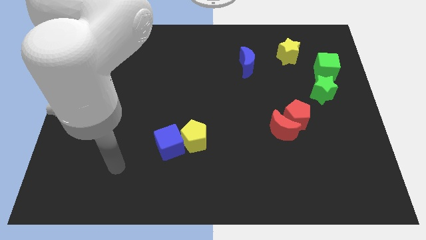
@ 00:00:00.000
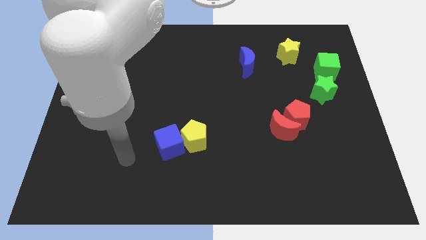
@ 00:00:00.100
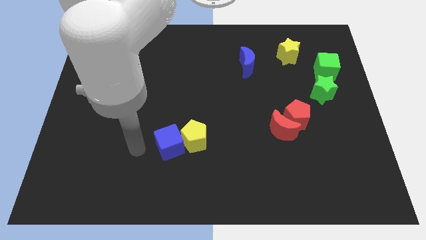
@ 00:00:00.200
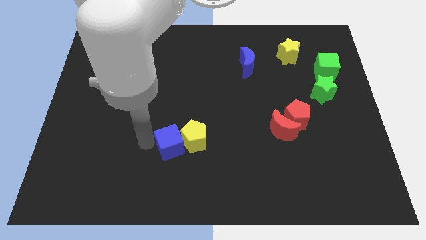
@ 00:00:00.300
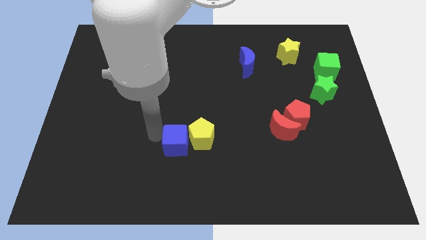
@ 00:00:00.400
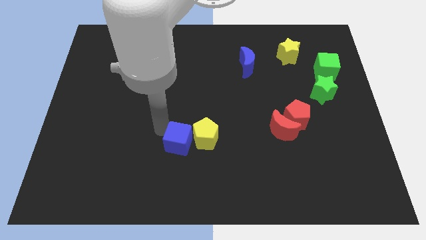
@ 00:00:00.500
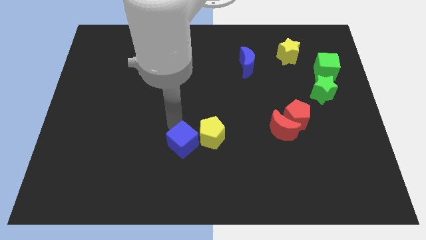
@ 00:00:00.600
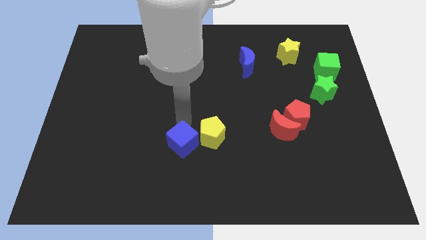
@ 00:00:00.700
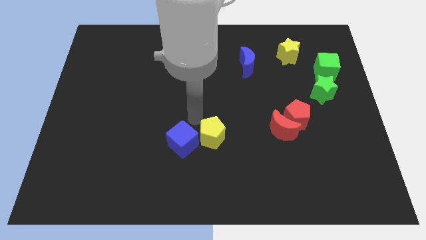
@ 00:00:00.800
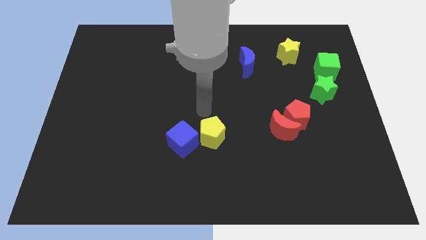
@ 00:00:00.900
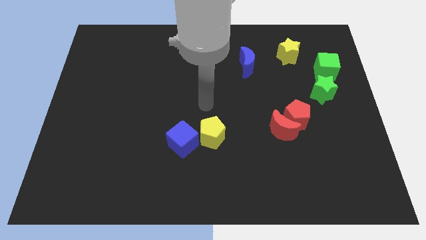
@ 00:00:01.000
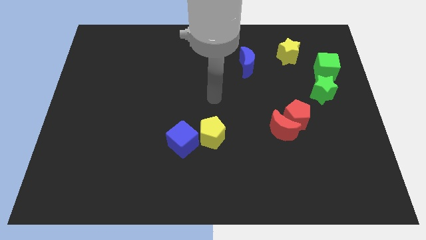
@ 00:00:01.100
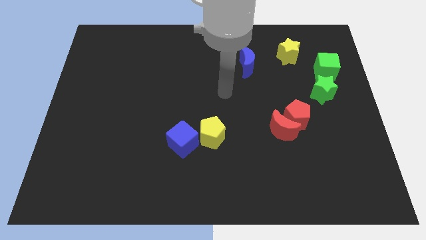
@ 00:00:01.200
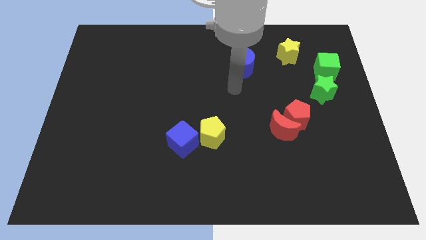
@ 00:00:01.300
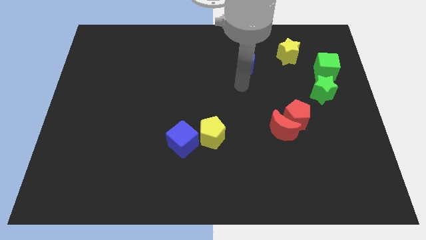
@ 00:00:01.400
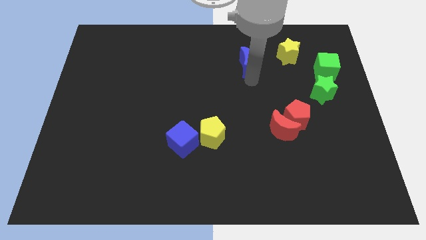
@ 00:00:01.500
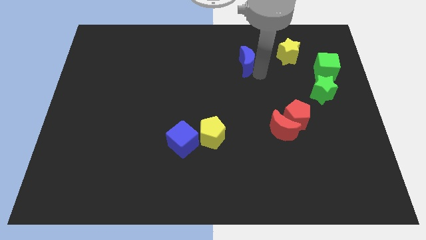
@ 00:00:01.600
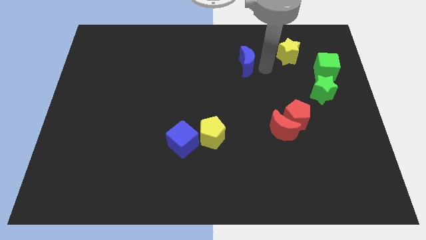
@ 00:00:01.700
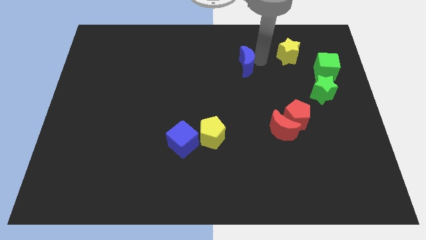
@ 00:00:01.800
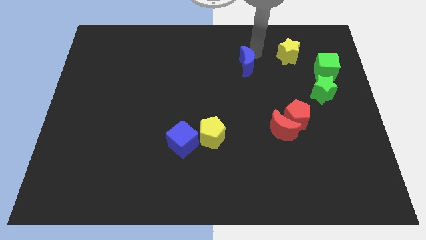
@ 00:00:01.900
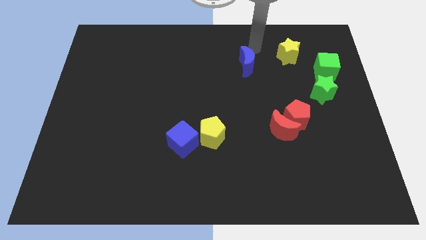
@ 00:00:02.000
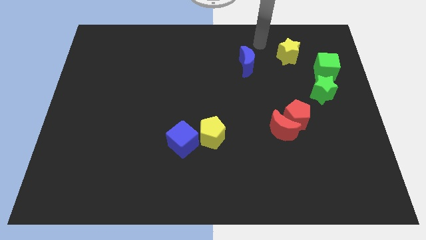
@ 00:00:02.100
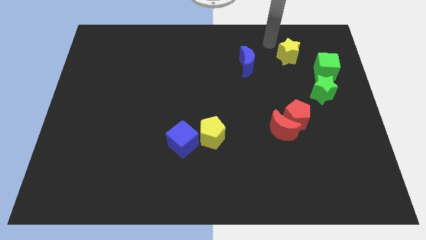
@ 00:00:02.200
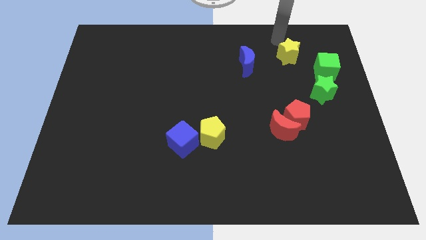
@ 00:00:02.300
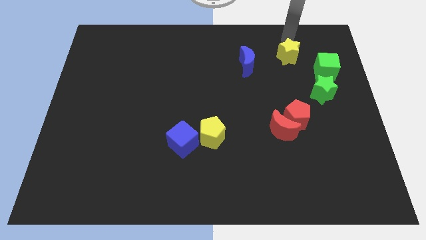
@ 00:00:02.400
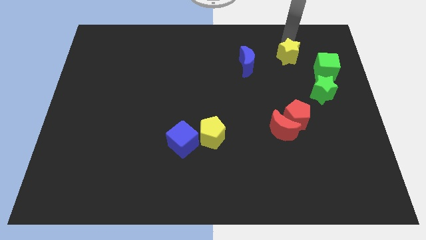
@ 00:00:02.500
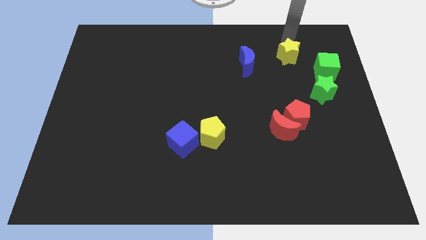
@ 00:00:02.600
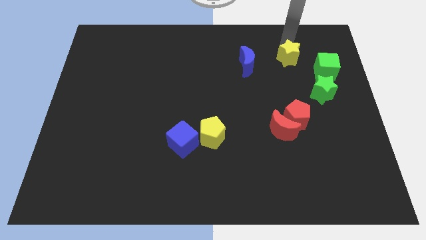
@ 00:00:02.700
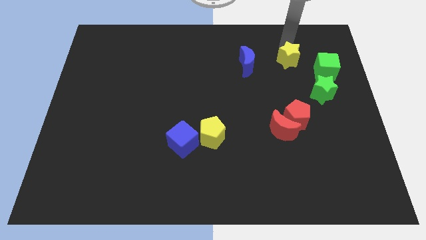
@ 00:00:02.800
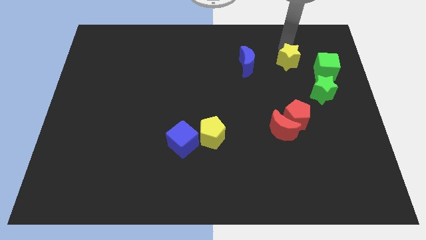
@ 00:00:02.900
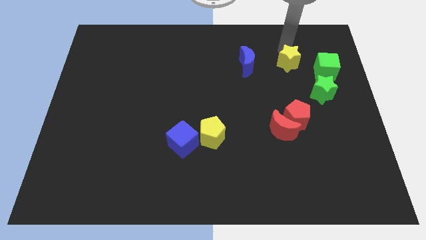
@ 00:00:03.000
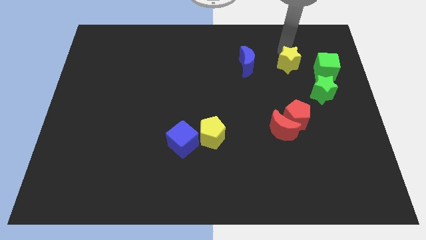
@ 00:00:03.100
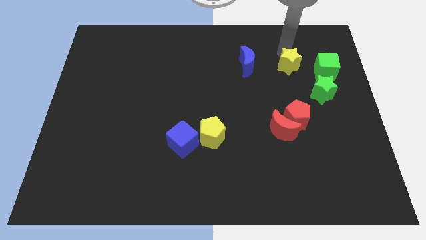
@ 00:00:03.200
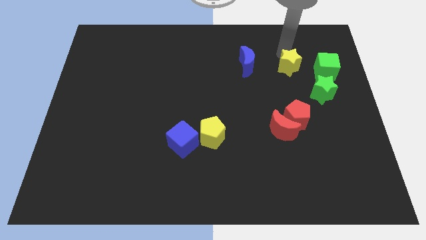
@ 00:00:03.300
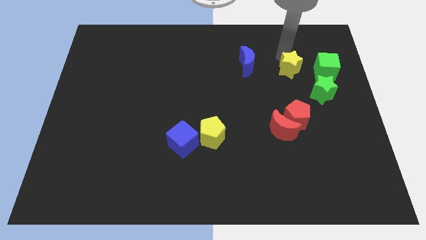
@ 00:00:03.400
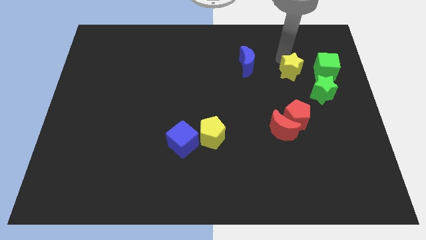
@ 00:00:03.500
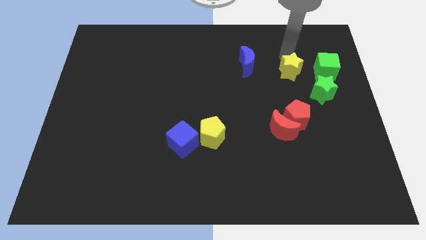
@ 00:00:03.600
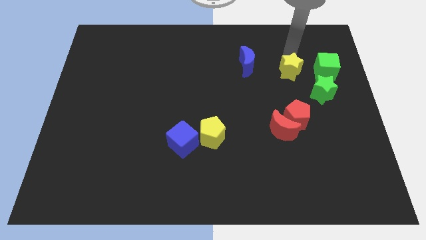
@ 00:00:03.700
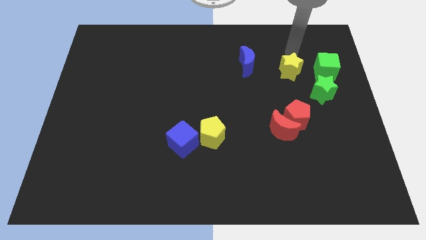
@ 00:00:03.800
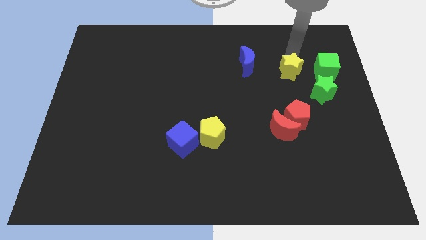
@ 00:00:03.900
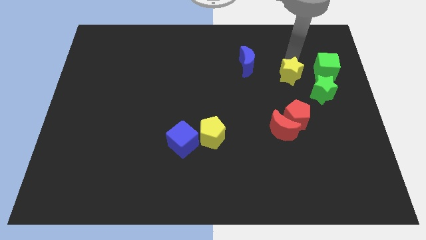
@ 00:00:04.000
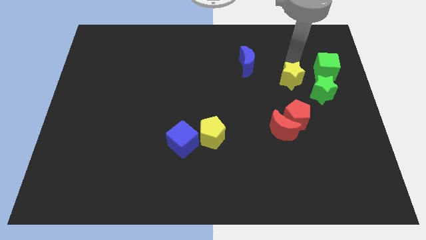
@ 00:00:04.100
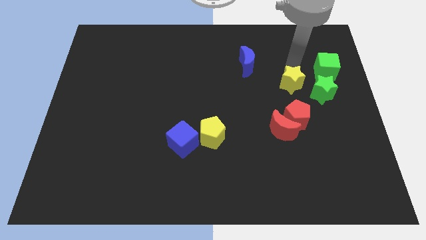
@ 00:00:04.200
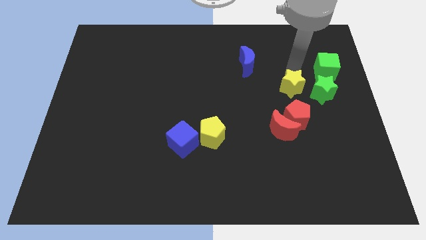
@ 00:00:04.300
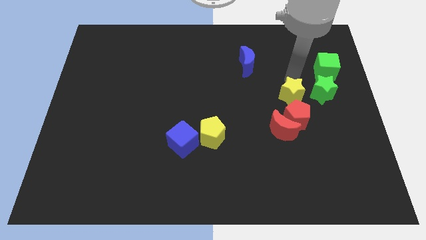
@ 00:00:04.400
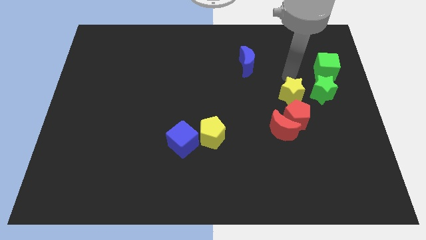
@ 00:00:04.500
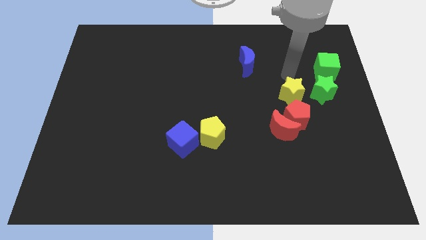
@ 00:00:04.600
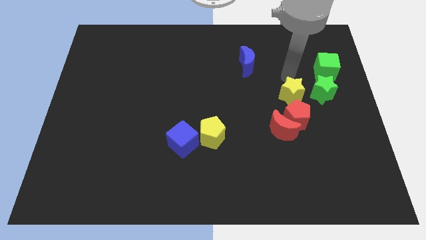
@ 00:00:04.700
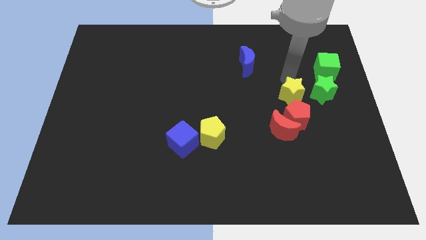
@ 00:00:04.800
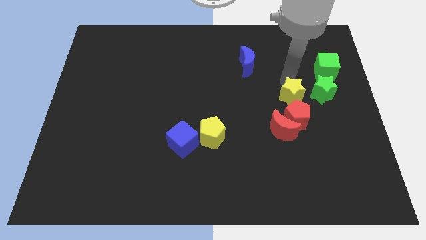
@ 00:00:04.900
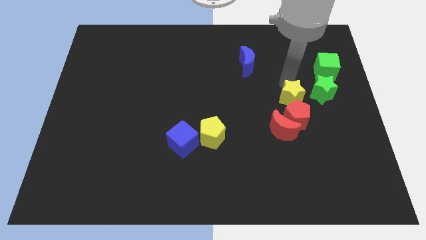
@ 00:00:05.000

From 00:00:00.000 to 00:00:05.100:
slide the yellow star next to the red pentagon

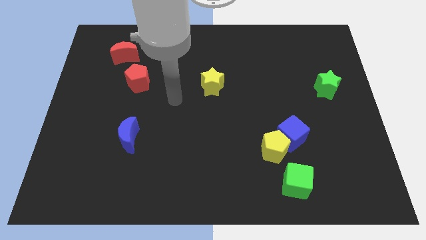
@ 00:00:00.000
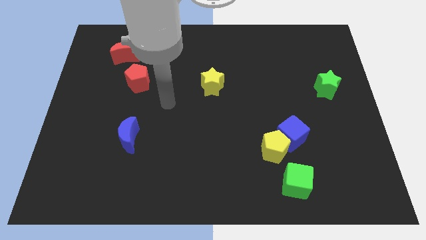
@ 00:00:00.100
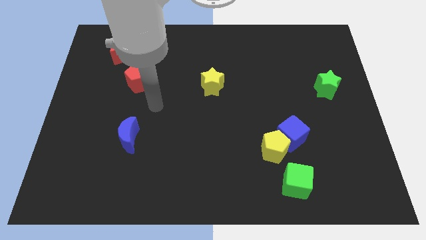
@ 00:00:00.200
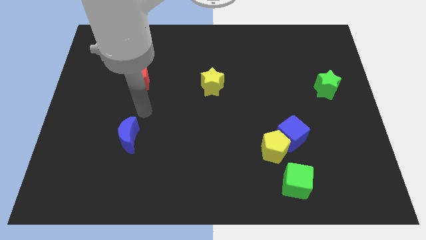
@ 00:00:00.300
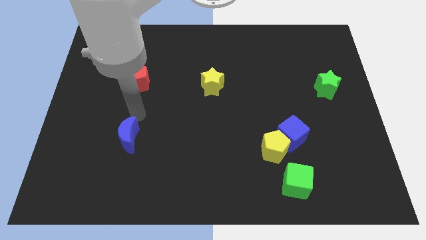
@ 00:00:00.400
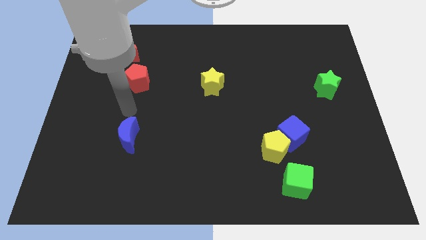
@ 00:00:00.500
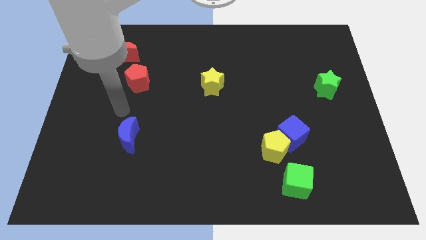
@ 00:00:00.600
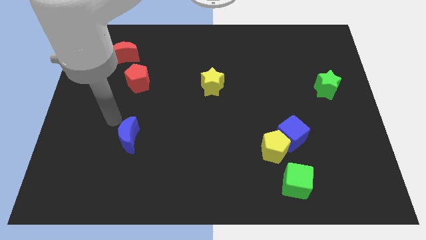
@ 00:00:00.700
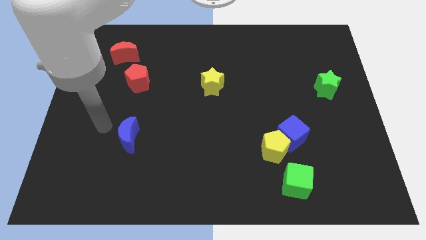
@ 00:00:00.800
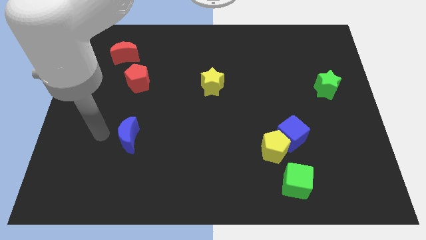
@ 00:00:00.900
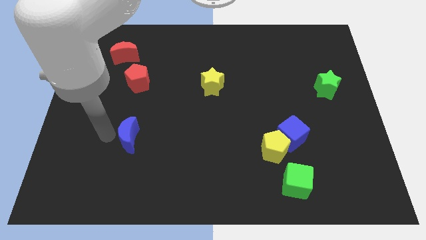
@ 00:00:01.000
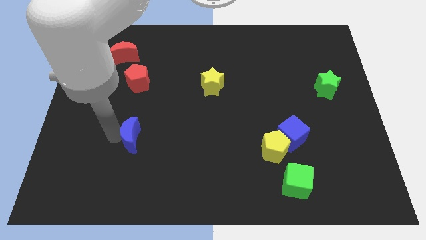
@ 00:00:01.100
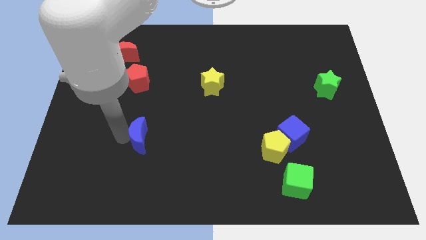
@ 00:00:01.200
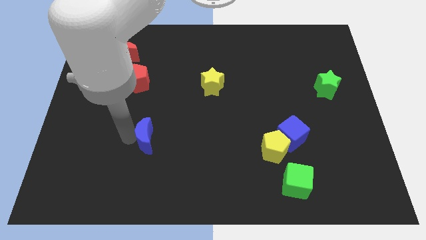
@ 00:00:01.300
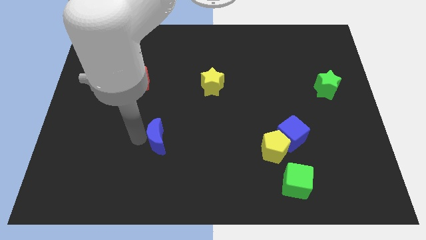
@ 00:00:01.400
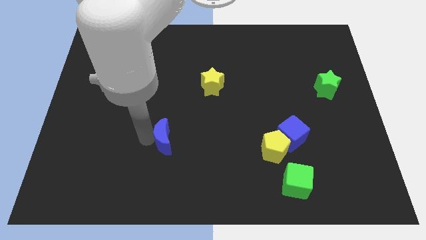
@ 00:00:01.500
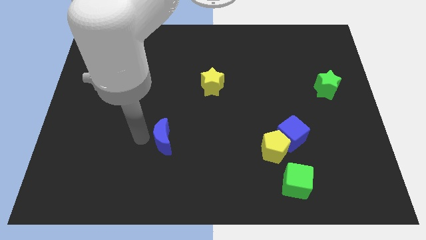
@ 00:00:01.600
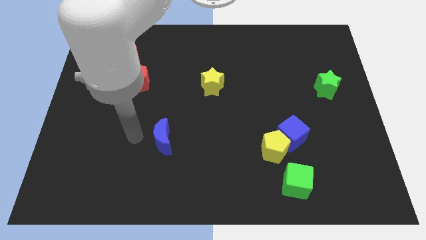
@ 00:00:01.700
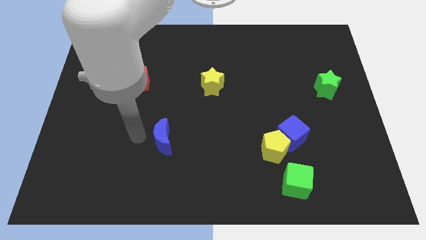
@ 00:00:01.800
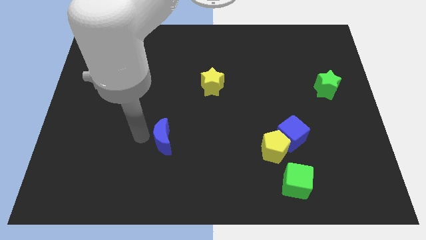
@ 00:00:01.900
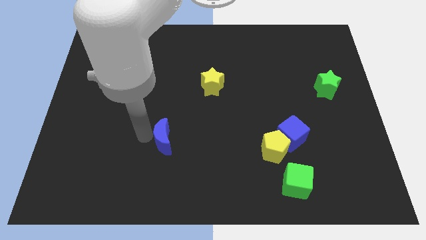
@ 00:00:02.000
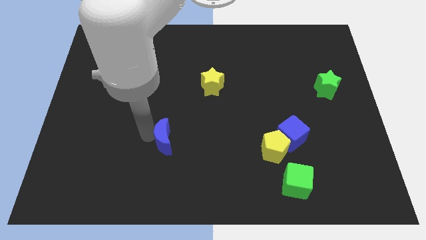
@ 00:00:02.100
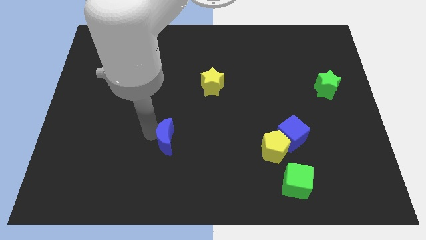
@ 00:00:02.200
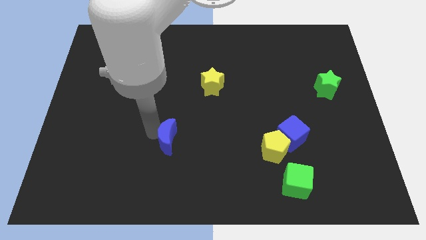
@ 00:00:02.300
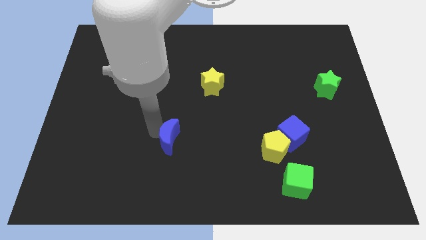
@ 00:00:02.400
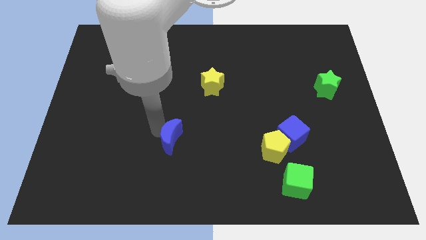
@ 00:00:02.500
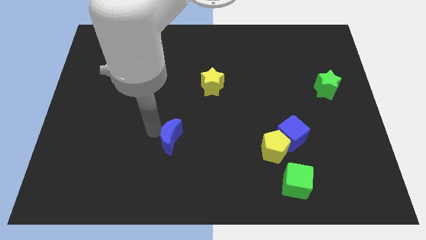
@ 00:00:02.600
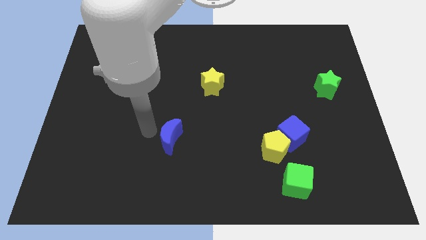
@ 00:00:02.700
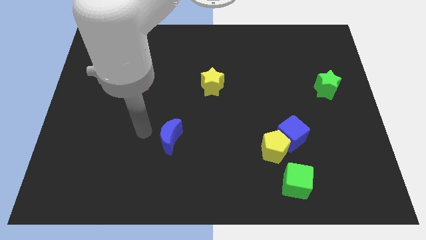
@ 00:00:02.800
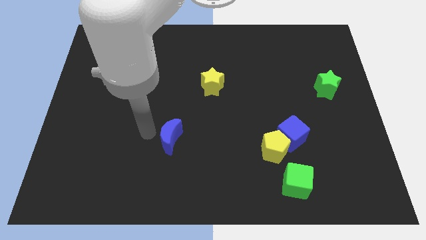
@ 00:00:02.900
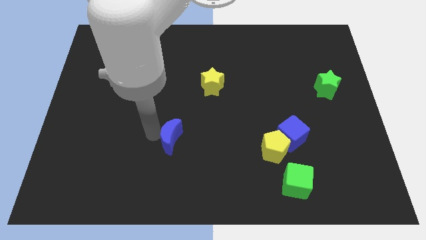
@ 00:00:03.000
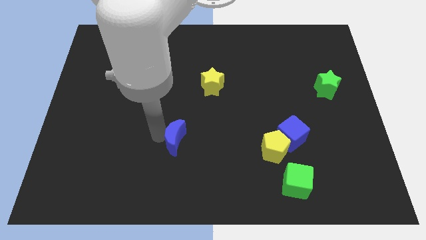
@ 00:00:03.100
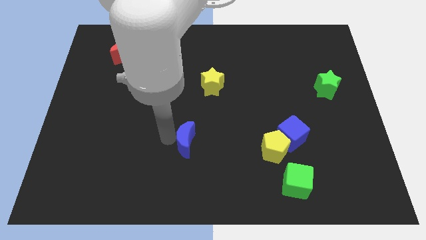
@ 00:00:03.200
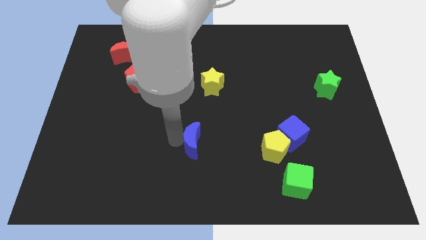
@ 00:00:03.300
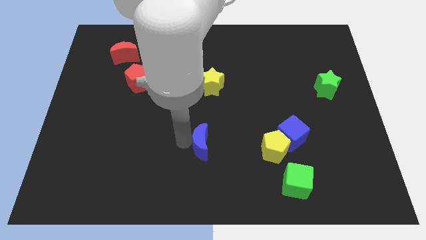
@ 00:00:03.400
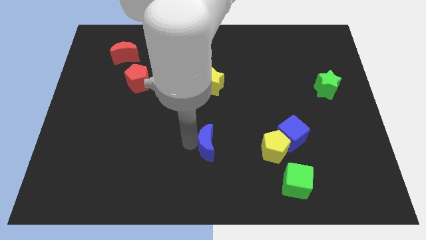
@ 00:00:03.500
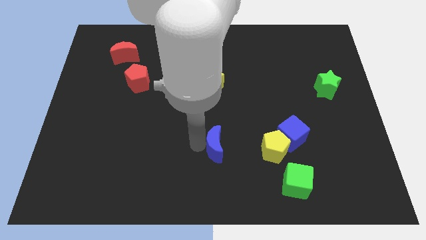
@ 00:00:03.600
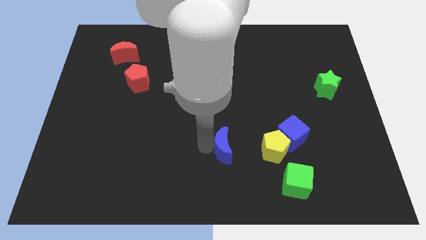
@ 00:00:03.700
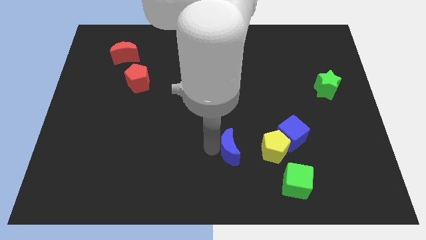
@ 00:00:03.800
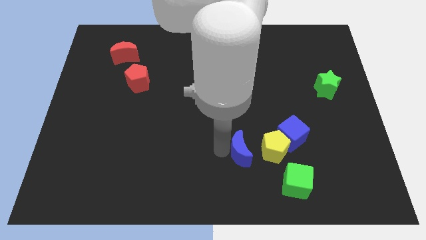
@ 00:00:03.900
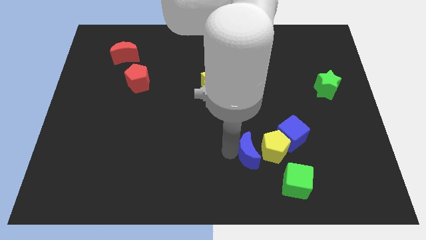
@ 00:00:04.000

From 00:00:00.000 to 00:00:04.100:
put the blue moon towards the yellow pentagon
